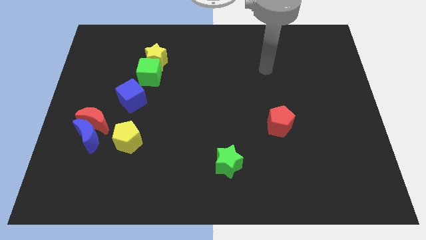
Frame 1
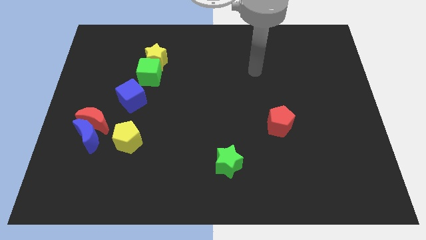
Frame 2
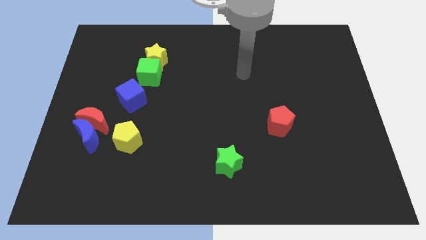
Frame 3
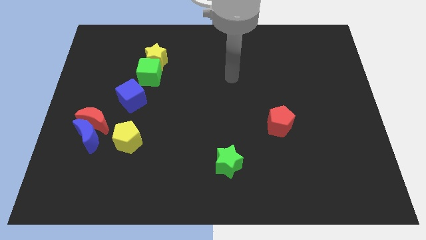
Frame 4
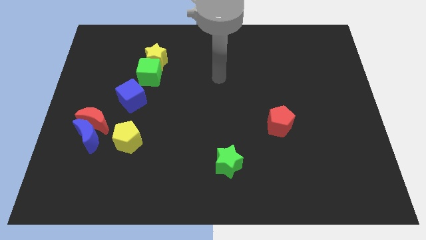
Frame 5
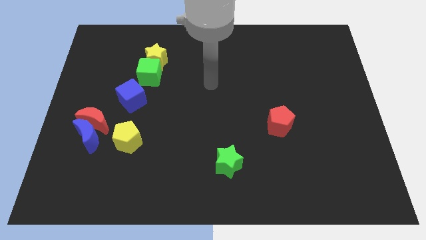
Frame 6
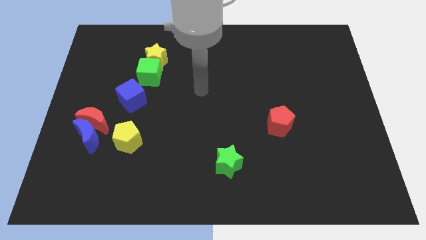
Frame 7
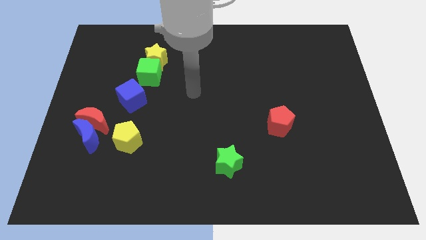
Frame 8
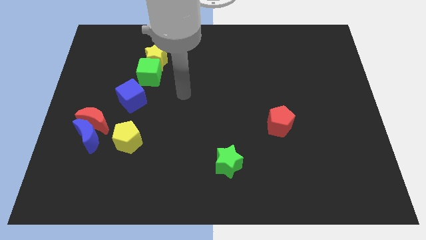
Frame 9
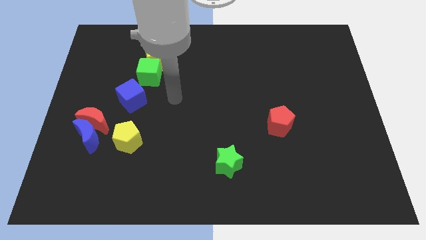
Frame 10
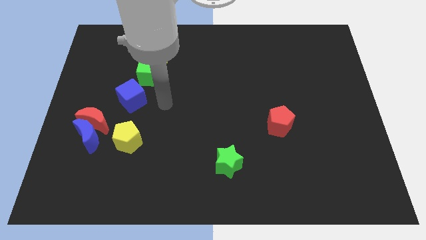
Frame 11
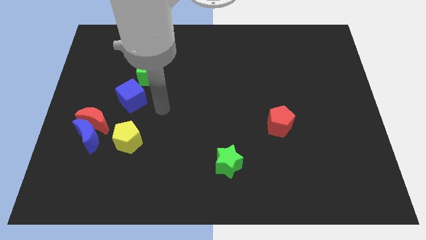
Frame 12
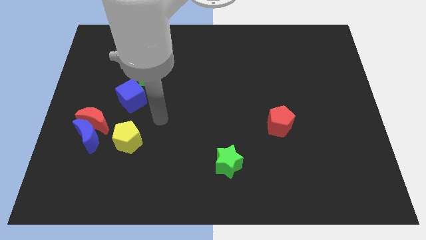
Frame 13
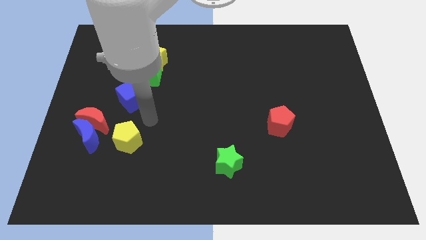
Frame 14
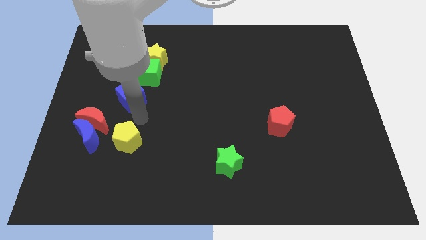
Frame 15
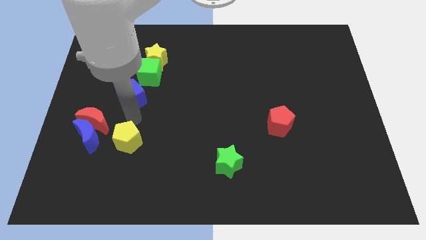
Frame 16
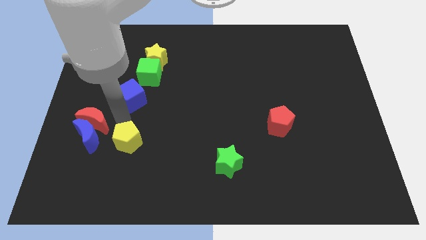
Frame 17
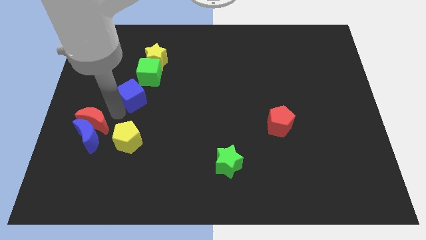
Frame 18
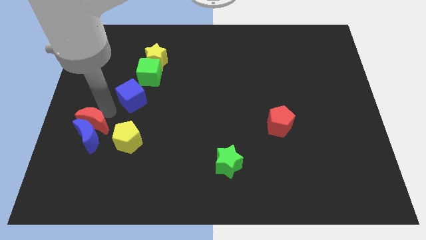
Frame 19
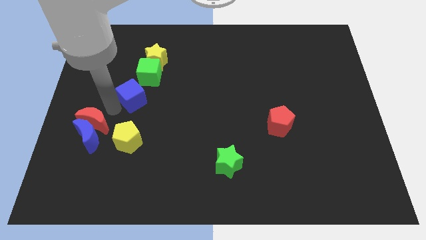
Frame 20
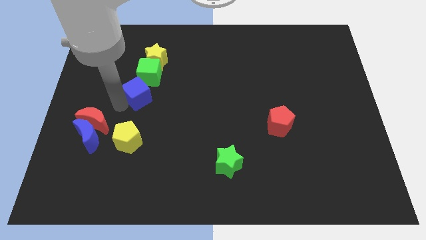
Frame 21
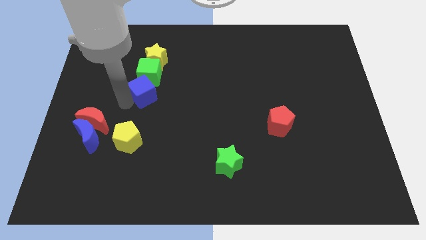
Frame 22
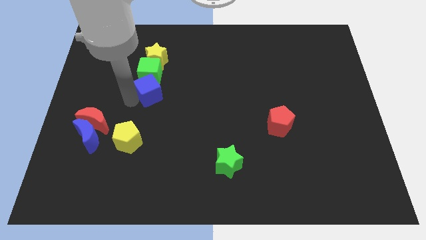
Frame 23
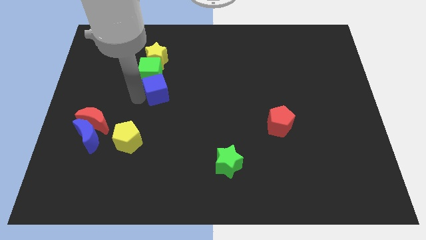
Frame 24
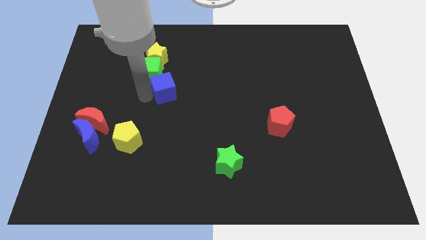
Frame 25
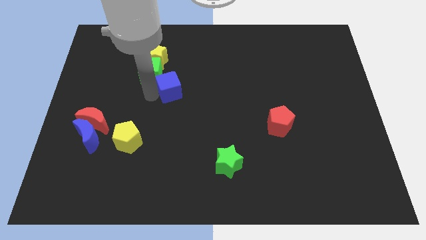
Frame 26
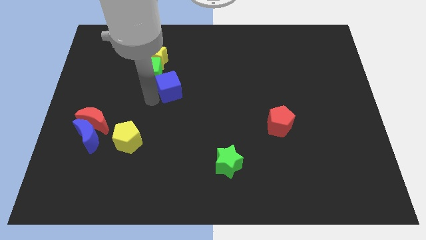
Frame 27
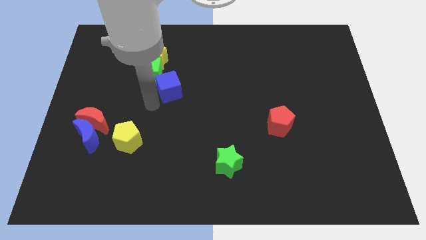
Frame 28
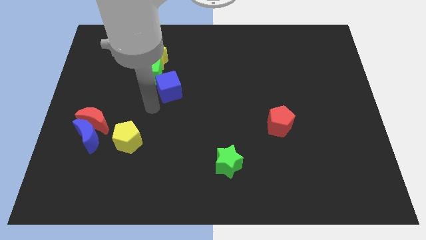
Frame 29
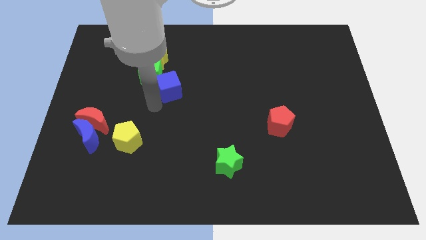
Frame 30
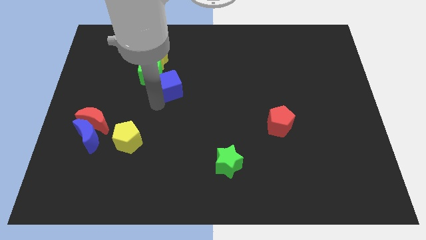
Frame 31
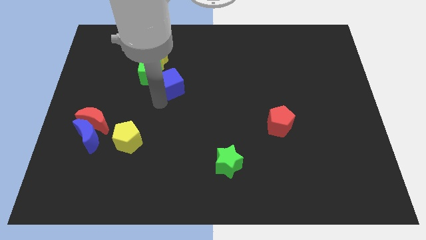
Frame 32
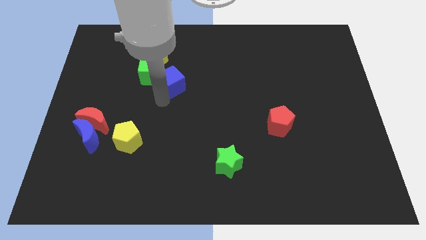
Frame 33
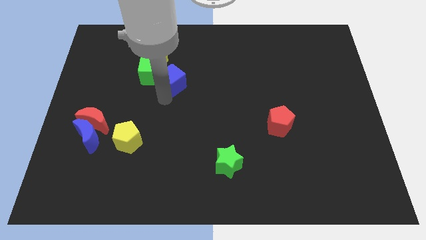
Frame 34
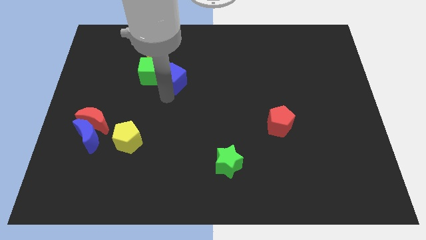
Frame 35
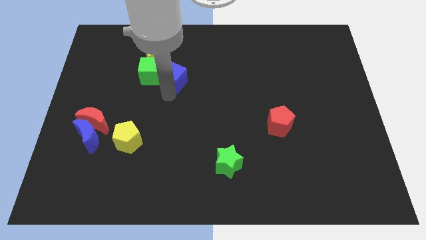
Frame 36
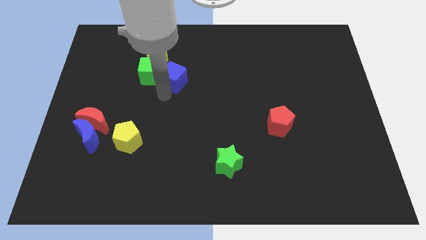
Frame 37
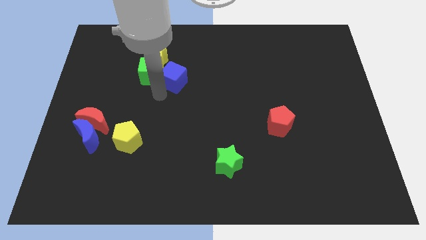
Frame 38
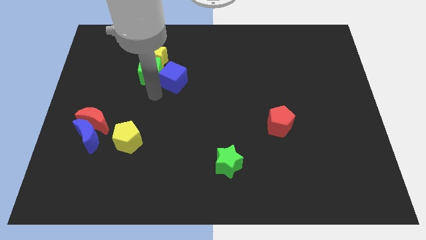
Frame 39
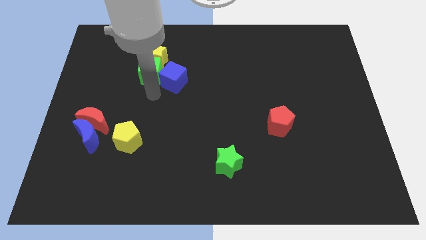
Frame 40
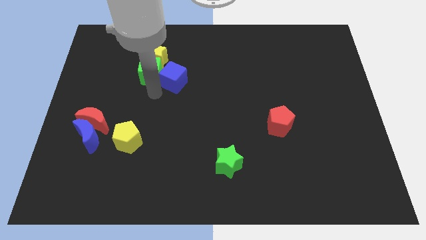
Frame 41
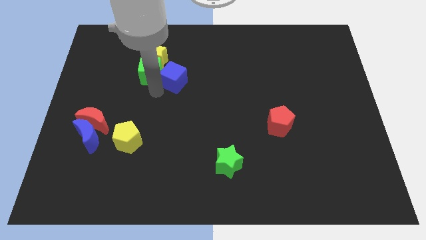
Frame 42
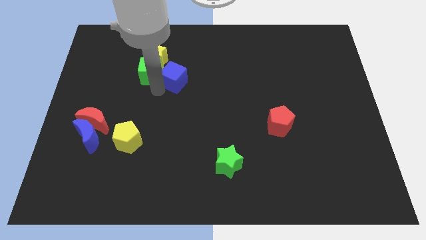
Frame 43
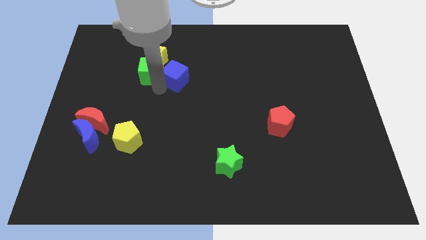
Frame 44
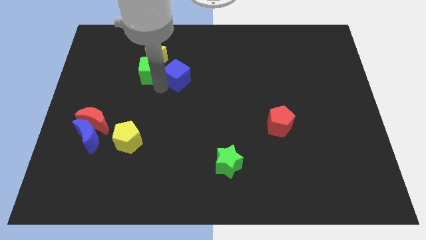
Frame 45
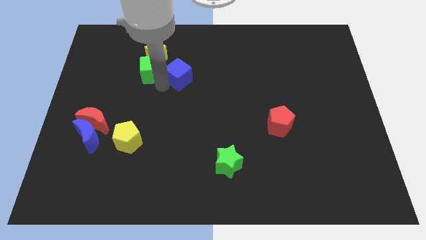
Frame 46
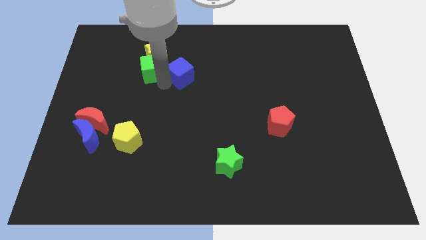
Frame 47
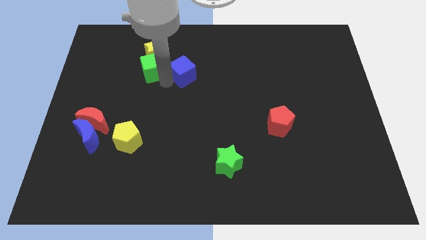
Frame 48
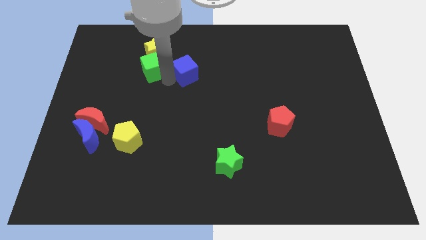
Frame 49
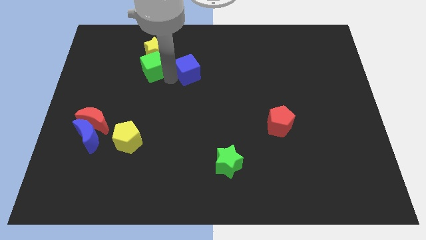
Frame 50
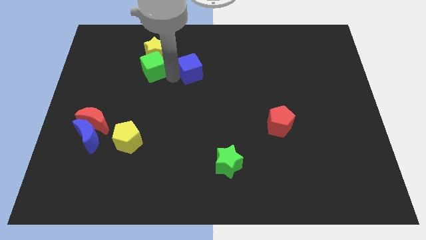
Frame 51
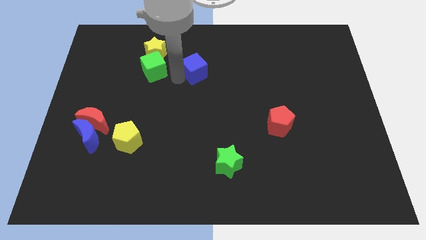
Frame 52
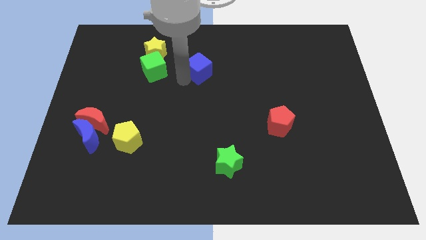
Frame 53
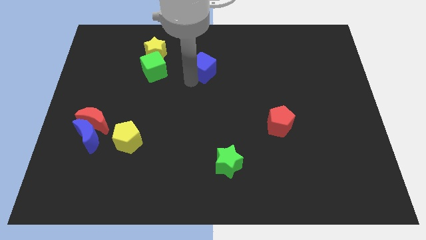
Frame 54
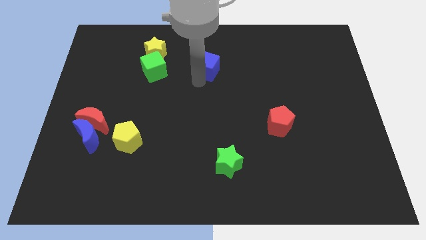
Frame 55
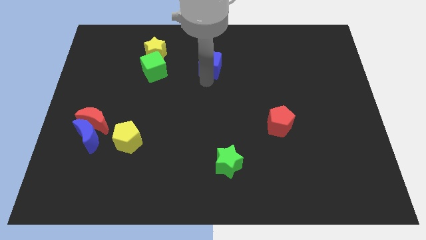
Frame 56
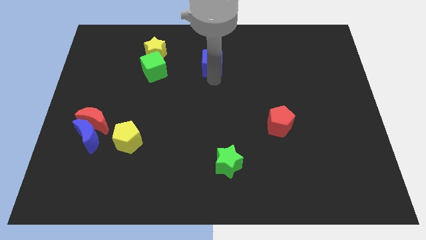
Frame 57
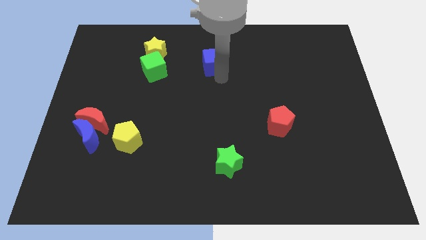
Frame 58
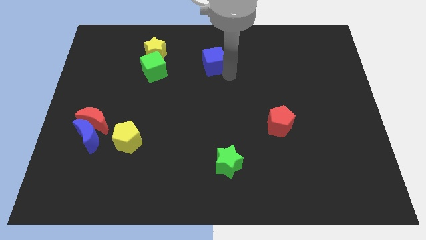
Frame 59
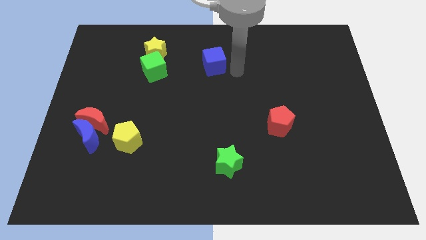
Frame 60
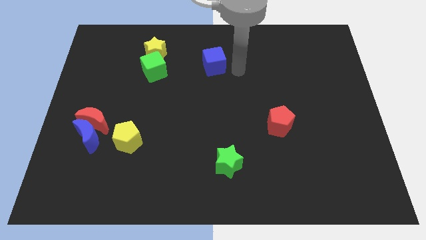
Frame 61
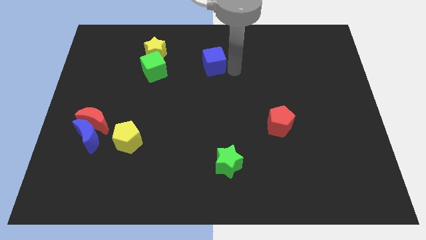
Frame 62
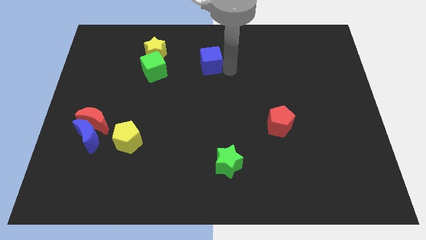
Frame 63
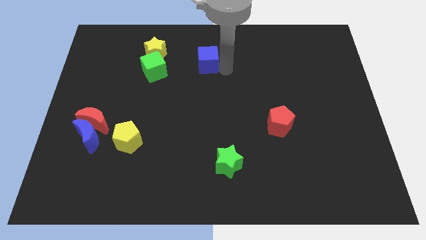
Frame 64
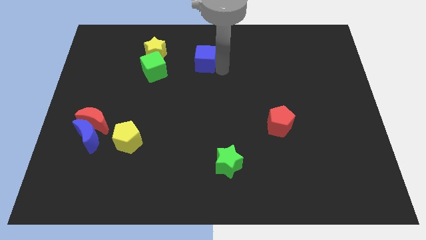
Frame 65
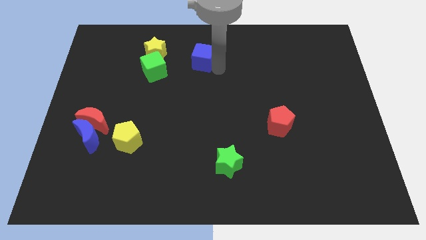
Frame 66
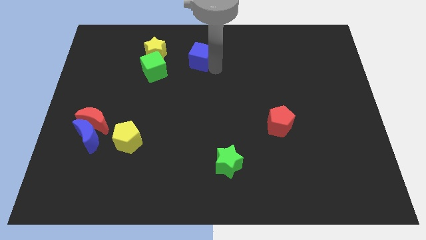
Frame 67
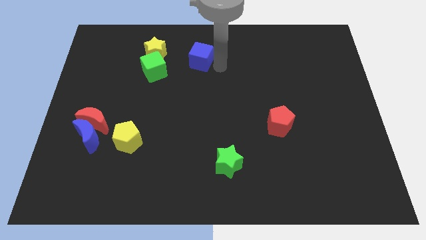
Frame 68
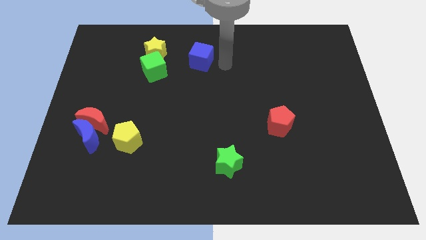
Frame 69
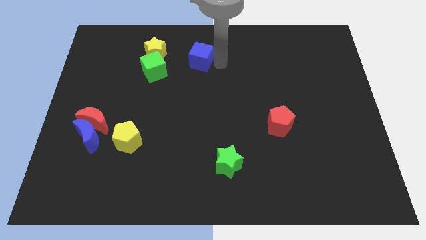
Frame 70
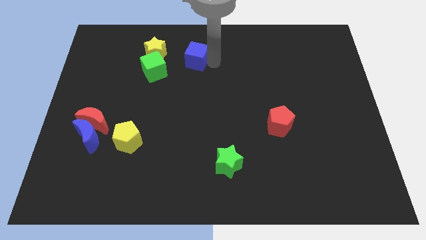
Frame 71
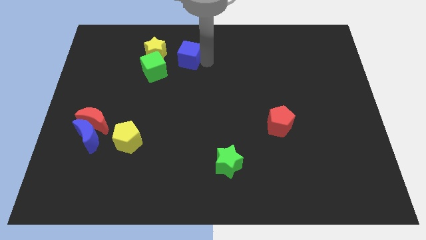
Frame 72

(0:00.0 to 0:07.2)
move the blue cube diagonally up and to the right of the green cube
